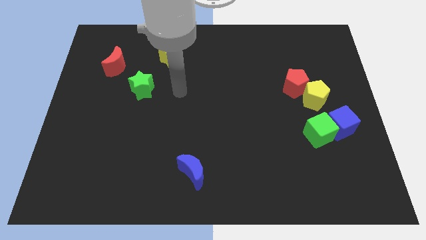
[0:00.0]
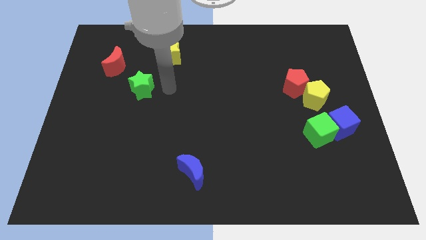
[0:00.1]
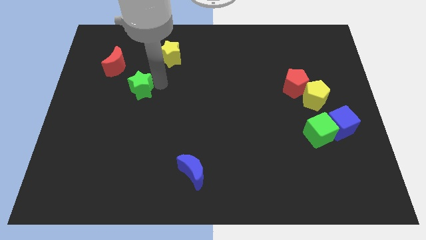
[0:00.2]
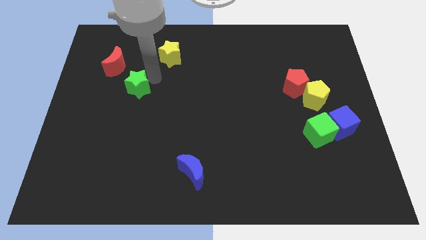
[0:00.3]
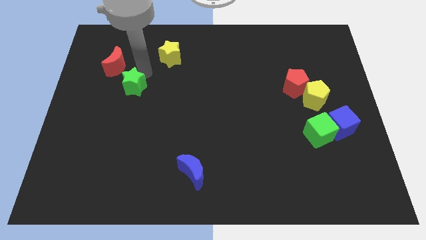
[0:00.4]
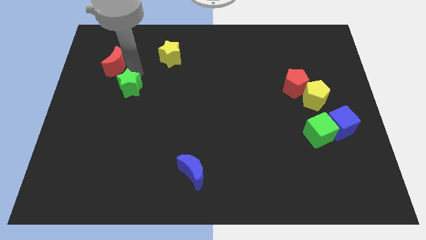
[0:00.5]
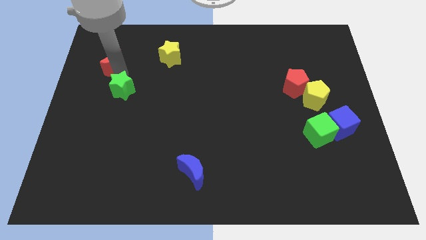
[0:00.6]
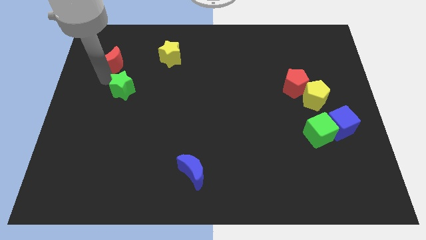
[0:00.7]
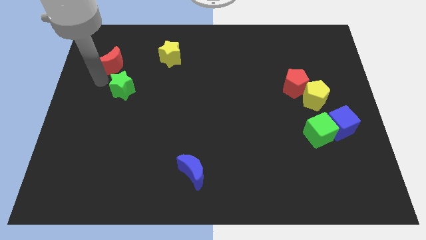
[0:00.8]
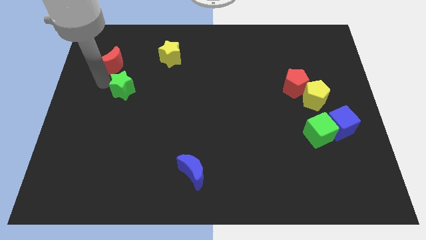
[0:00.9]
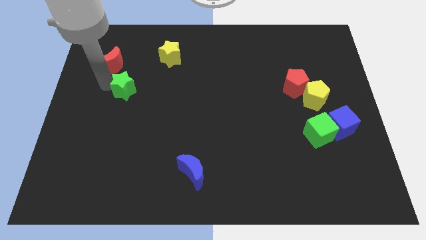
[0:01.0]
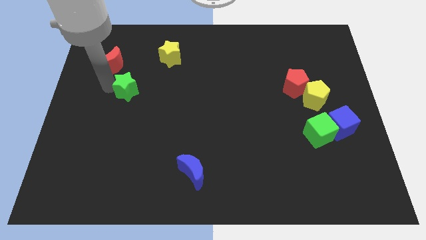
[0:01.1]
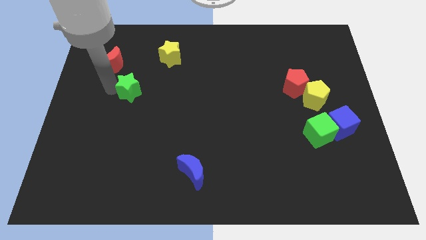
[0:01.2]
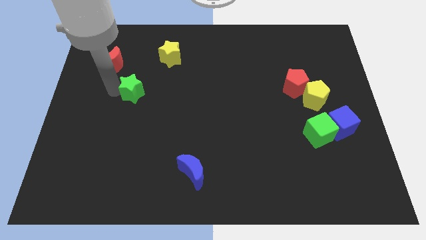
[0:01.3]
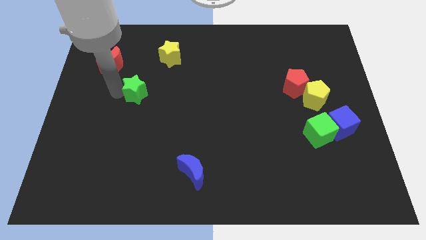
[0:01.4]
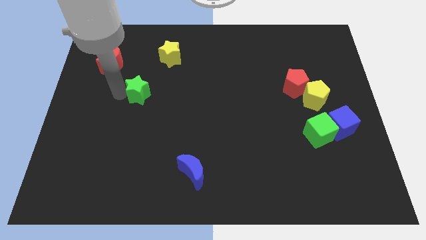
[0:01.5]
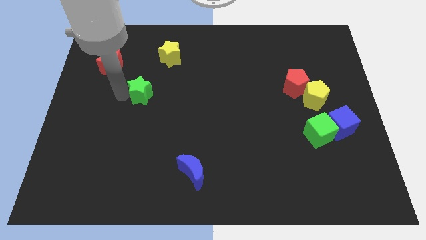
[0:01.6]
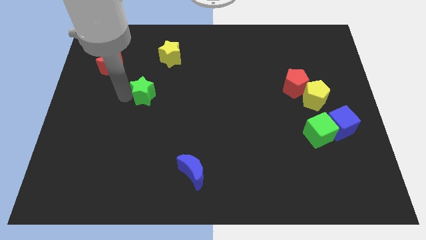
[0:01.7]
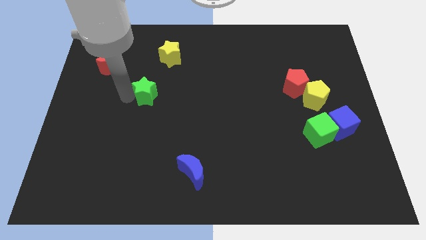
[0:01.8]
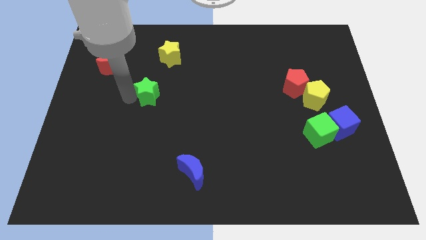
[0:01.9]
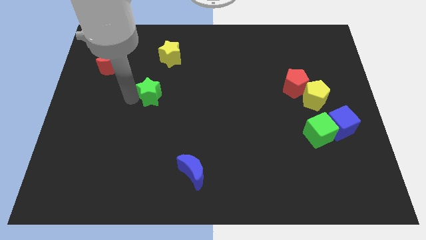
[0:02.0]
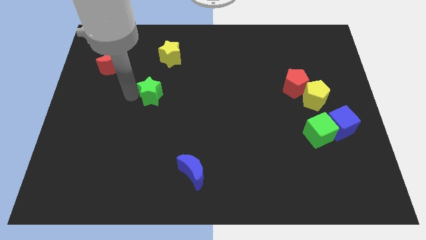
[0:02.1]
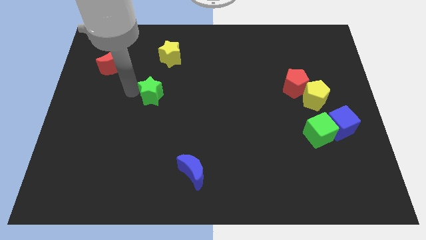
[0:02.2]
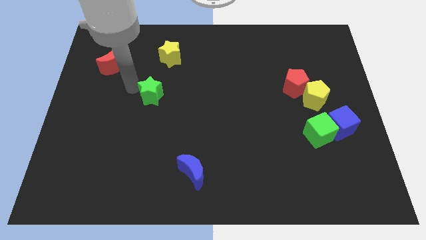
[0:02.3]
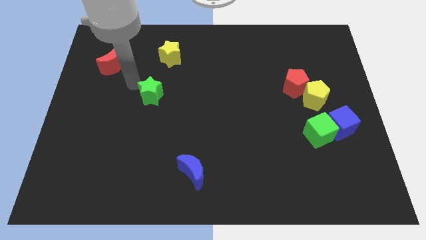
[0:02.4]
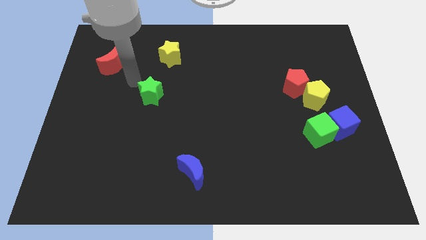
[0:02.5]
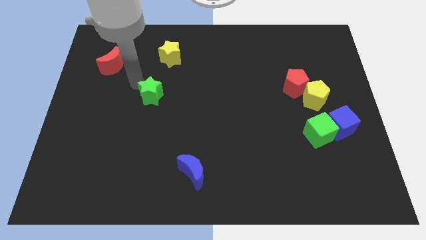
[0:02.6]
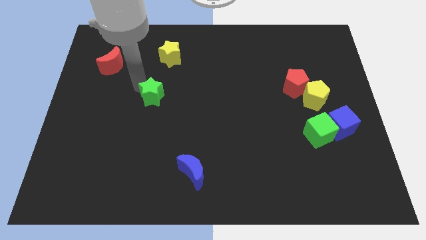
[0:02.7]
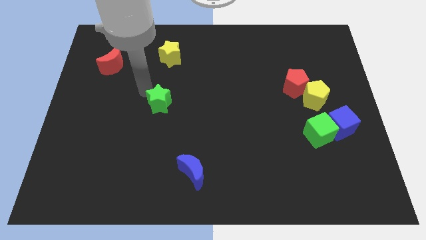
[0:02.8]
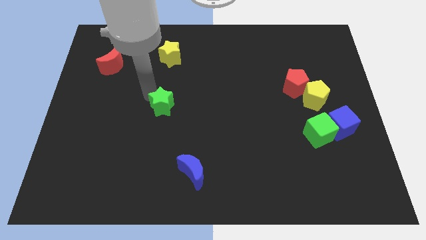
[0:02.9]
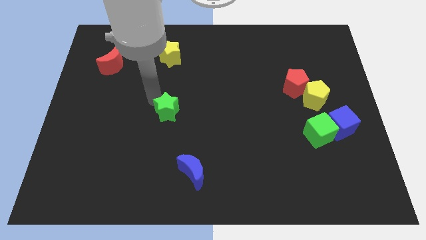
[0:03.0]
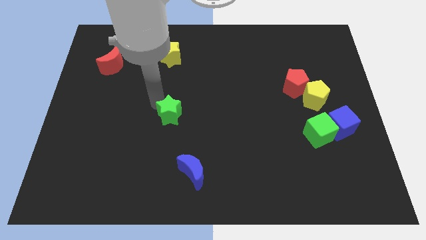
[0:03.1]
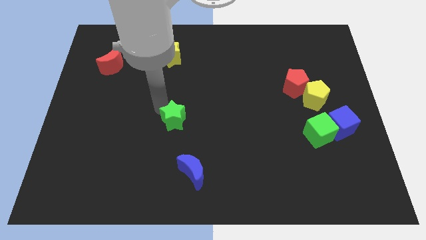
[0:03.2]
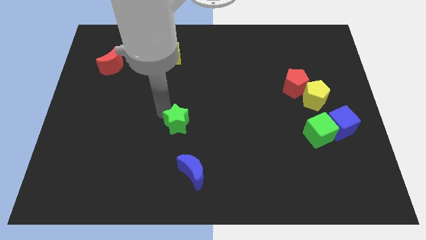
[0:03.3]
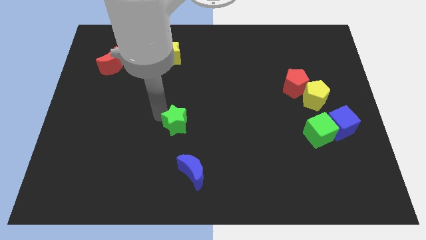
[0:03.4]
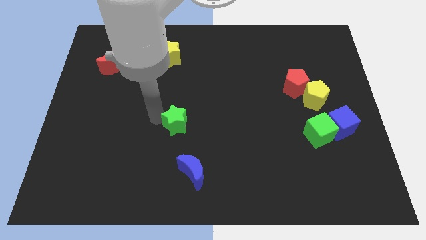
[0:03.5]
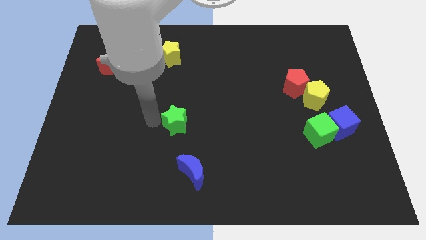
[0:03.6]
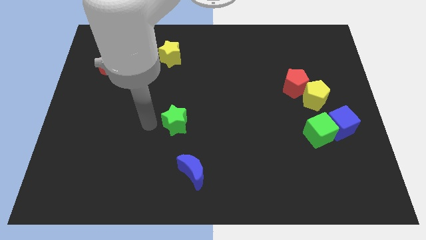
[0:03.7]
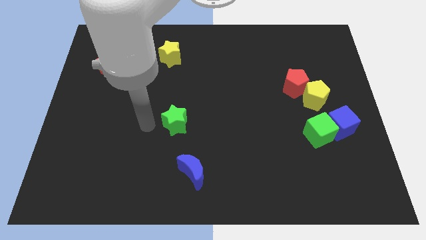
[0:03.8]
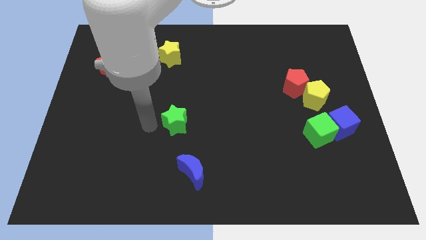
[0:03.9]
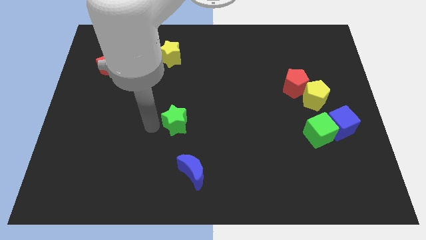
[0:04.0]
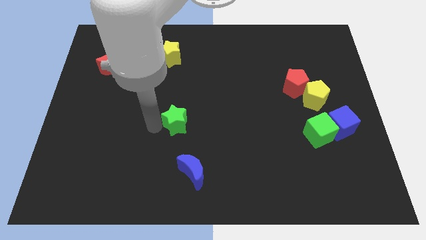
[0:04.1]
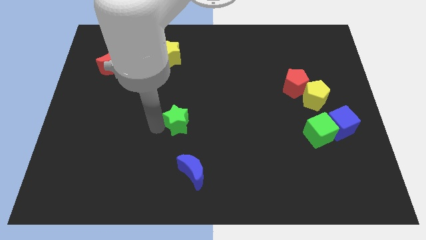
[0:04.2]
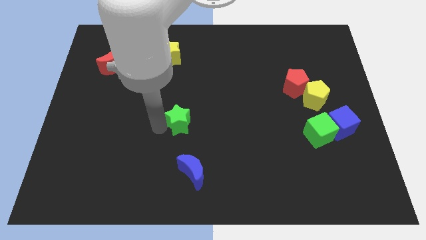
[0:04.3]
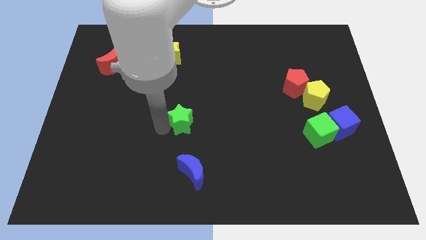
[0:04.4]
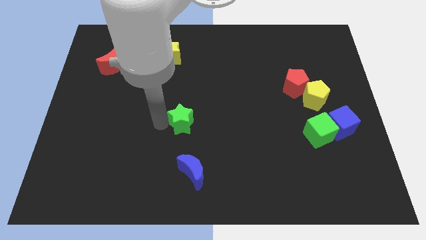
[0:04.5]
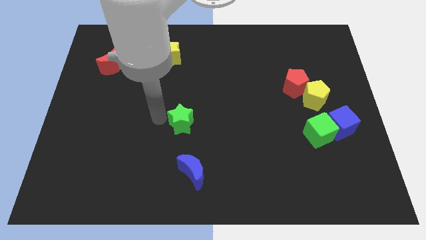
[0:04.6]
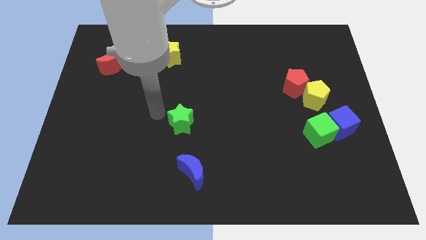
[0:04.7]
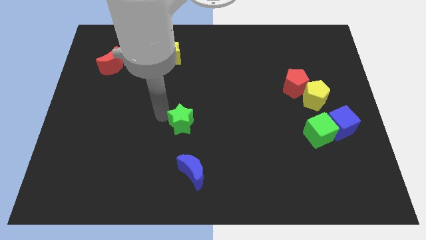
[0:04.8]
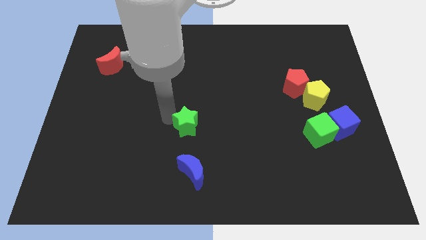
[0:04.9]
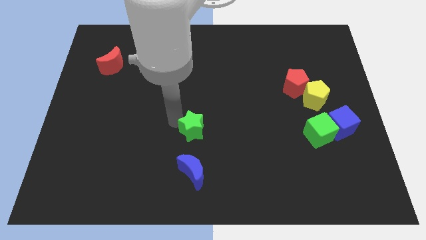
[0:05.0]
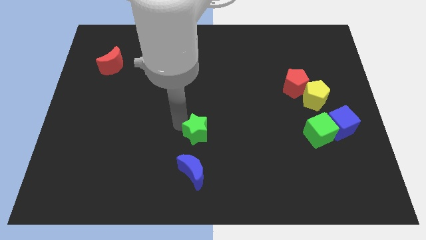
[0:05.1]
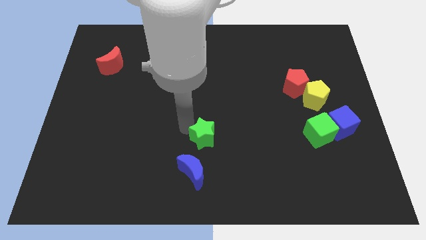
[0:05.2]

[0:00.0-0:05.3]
move the green star down and then to the right

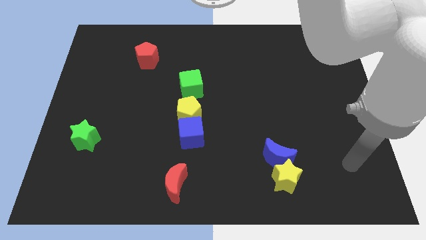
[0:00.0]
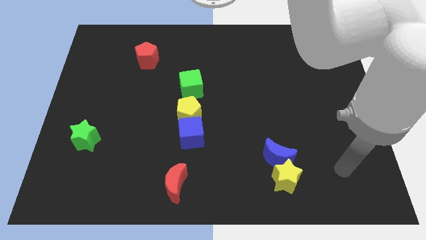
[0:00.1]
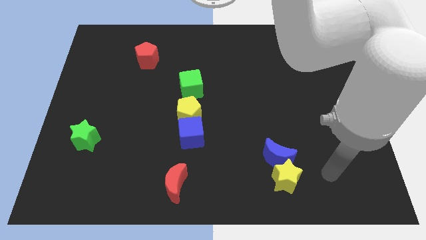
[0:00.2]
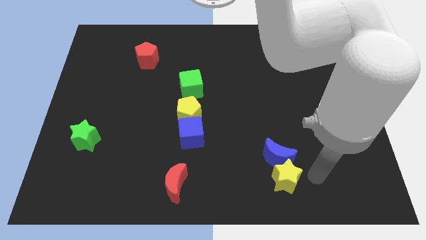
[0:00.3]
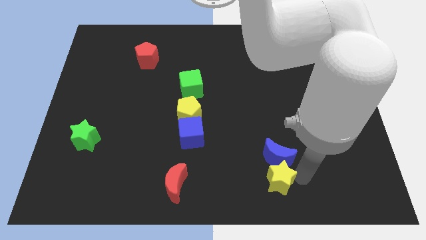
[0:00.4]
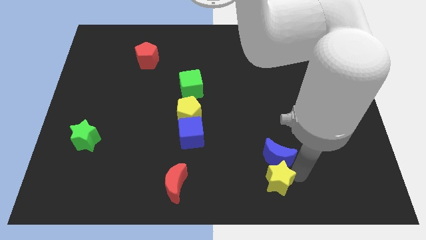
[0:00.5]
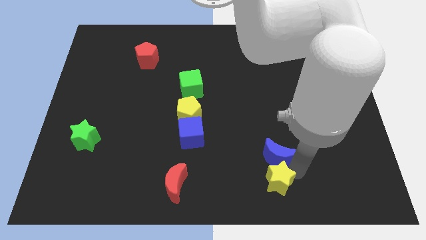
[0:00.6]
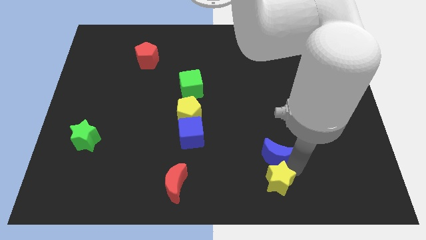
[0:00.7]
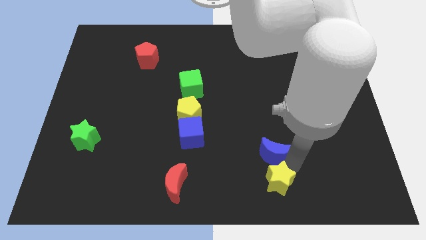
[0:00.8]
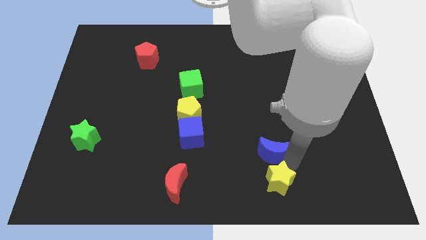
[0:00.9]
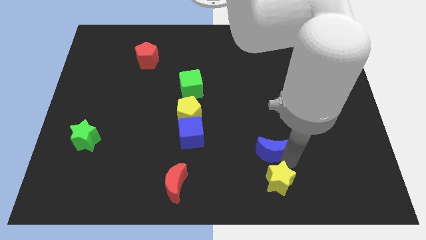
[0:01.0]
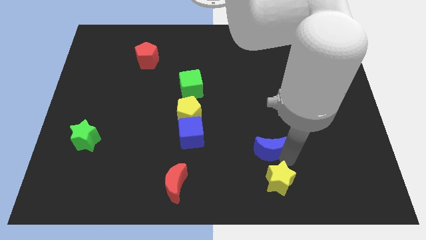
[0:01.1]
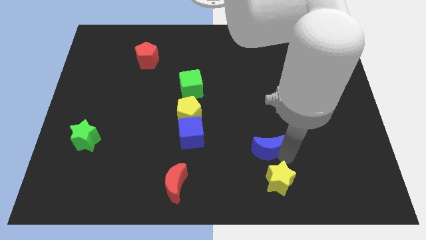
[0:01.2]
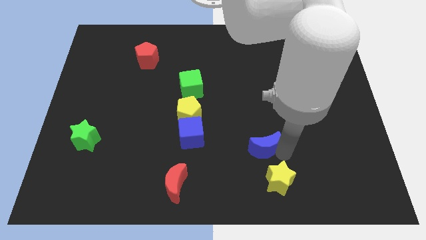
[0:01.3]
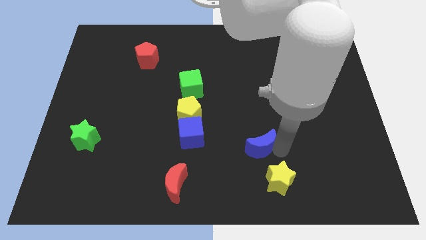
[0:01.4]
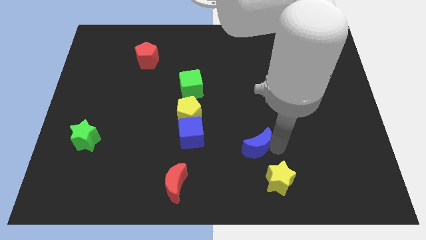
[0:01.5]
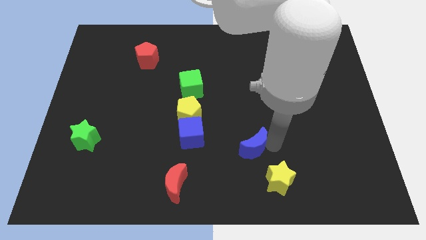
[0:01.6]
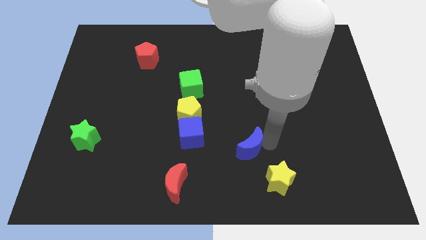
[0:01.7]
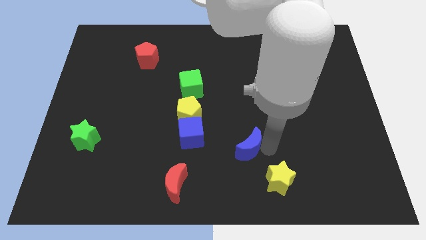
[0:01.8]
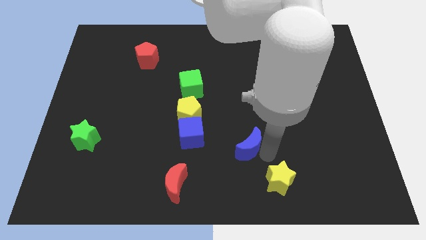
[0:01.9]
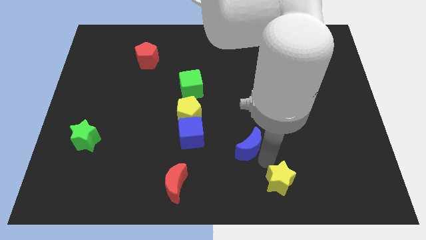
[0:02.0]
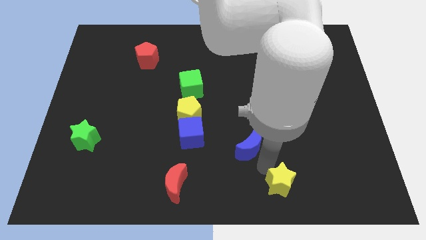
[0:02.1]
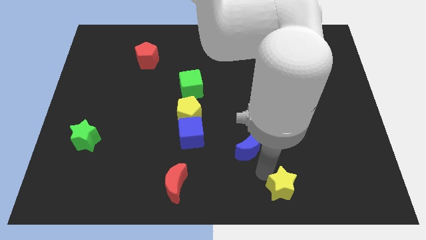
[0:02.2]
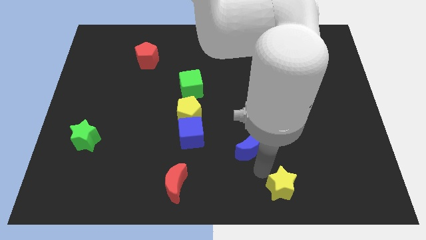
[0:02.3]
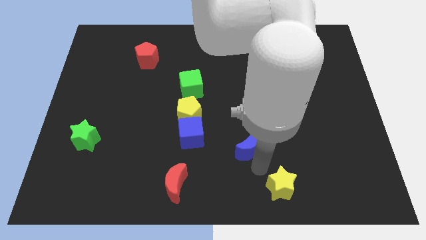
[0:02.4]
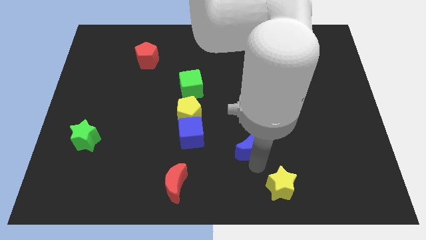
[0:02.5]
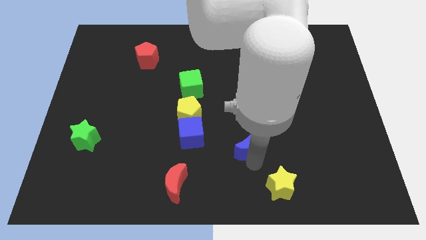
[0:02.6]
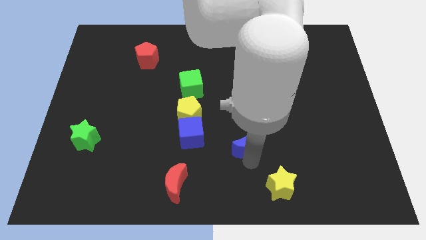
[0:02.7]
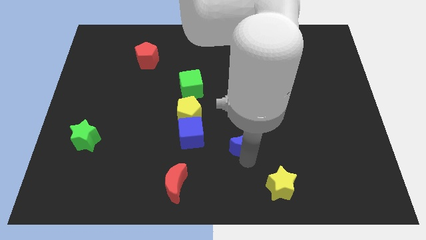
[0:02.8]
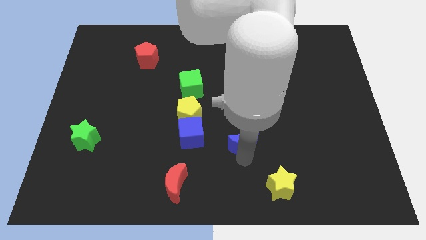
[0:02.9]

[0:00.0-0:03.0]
push the blue moon slightly upwards and left diagonally
